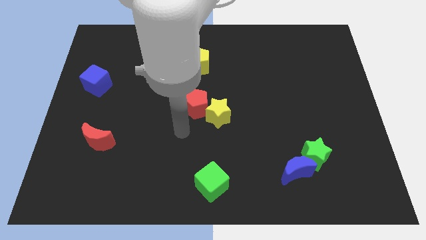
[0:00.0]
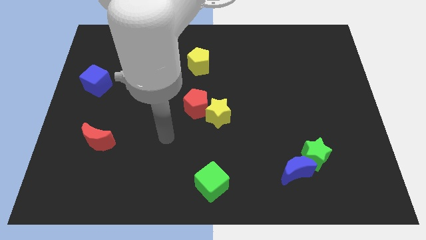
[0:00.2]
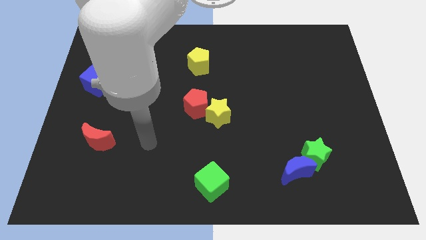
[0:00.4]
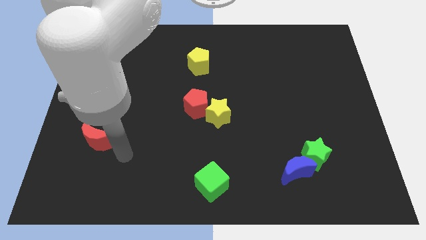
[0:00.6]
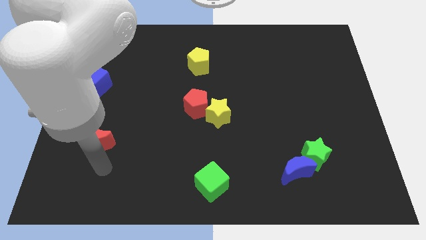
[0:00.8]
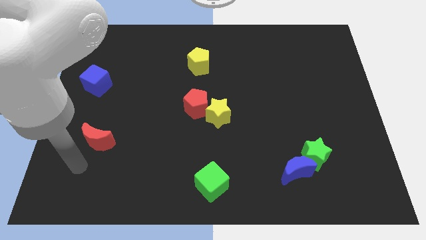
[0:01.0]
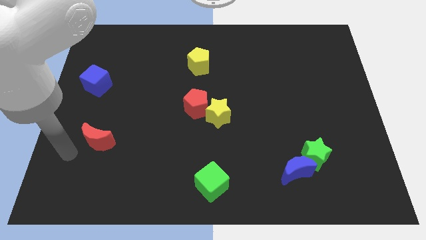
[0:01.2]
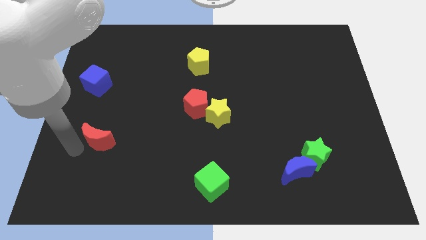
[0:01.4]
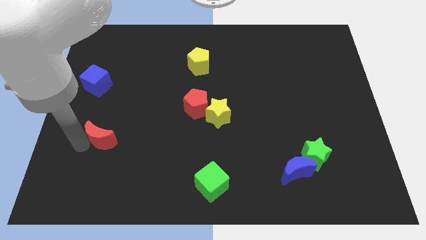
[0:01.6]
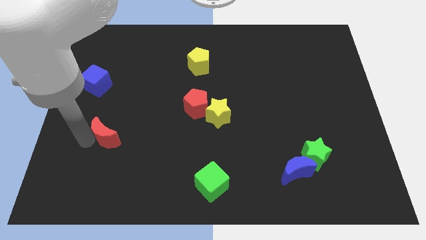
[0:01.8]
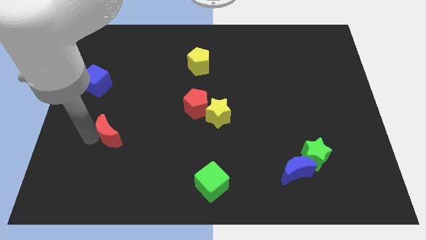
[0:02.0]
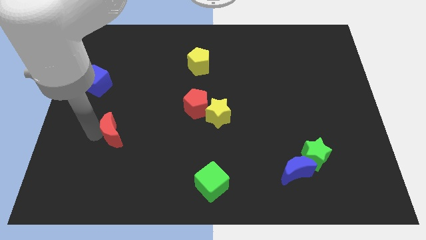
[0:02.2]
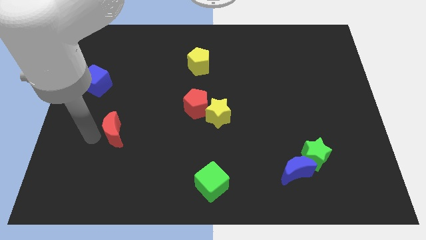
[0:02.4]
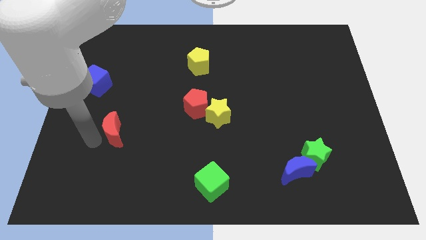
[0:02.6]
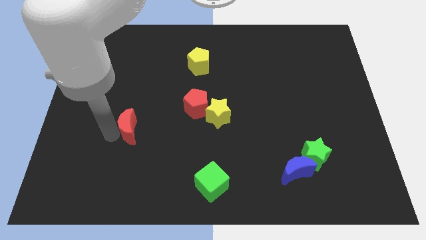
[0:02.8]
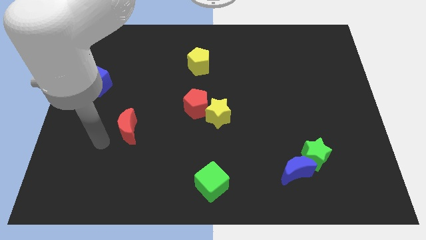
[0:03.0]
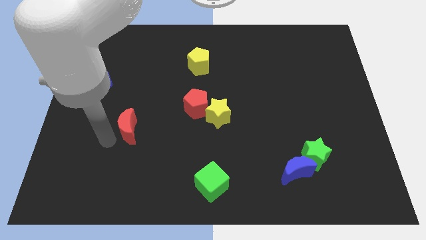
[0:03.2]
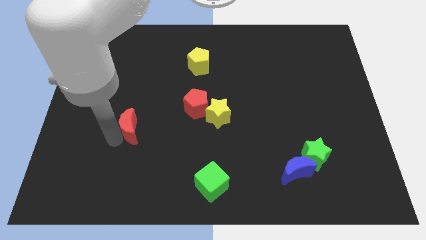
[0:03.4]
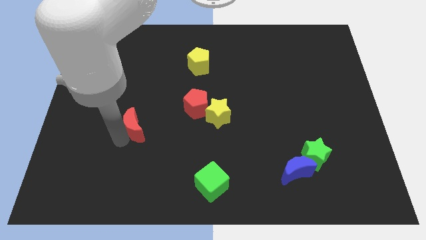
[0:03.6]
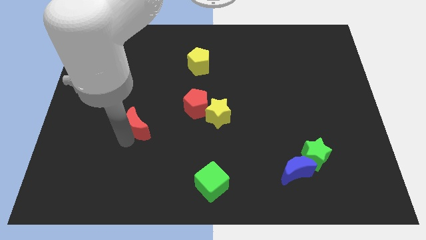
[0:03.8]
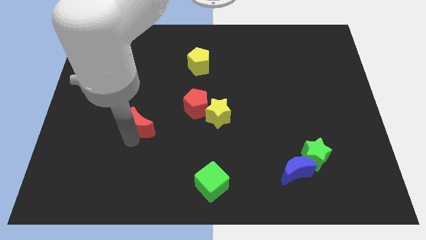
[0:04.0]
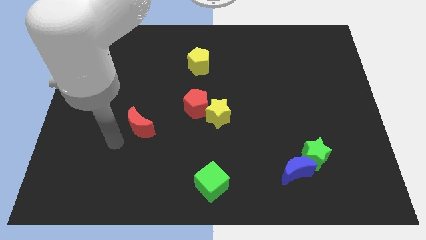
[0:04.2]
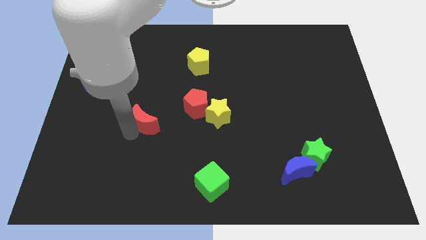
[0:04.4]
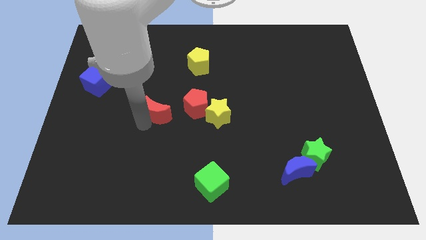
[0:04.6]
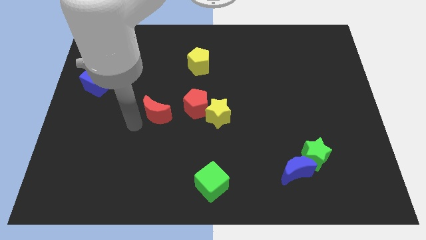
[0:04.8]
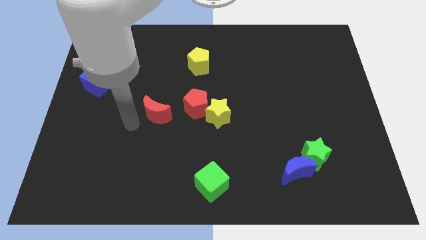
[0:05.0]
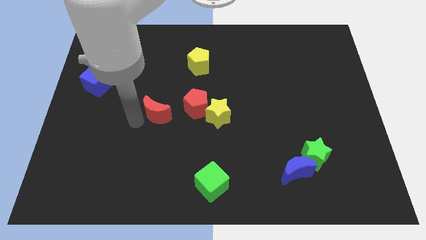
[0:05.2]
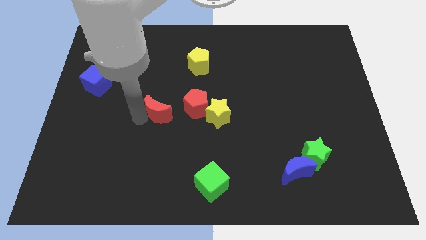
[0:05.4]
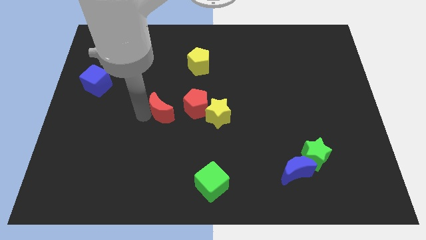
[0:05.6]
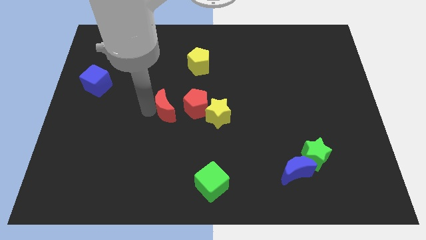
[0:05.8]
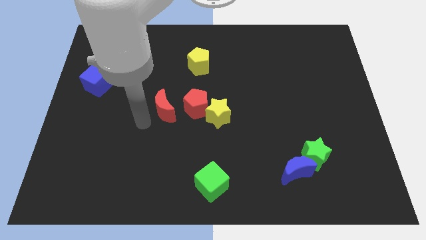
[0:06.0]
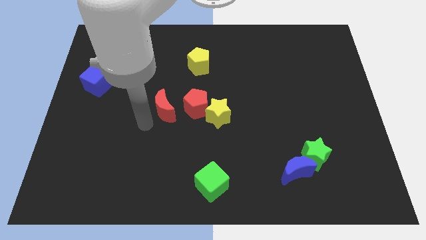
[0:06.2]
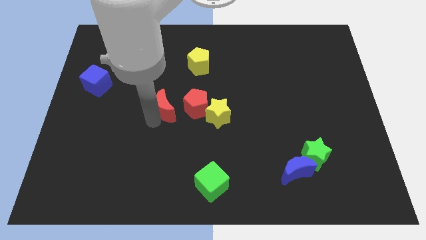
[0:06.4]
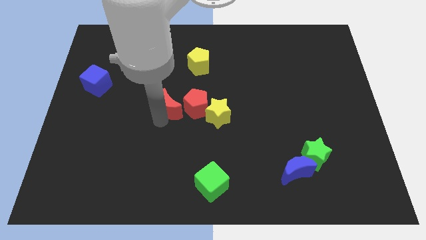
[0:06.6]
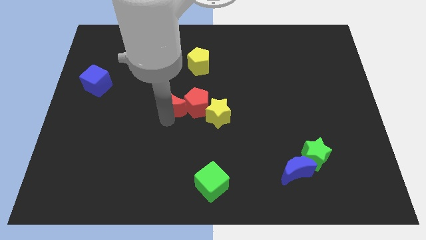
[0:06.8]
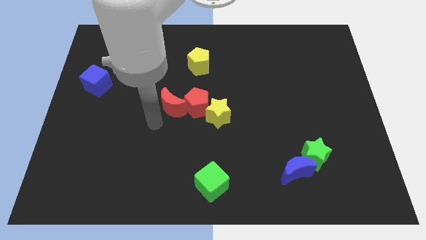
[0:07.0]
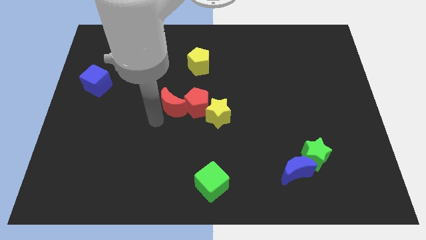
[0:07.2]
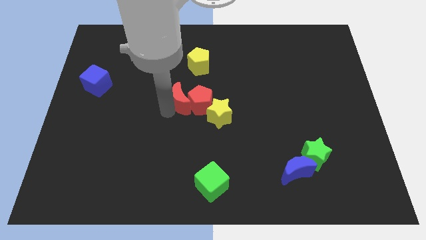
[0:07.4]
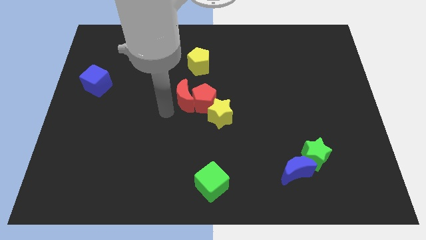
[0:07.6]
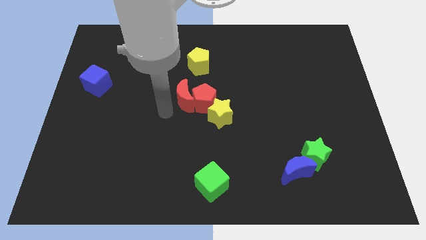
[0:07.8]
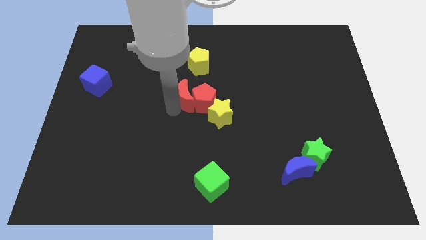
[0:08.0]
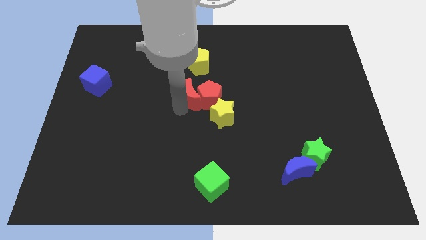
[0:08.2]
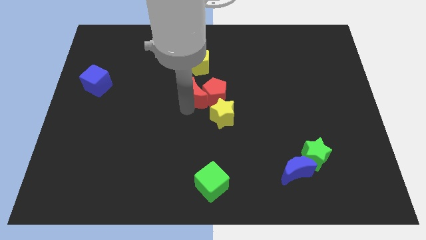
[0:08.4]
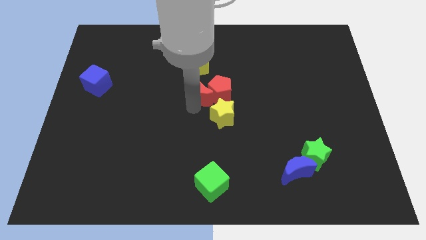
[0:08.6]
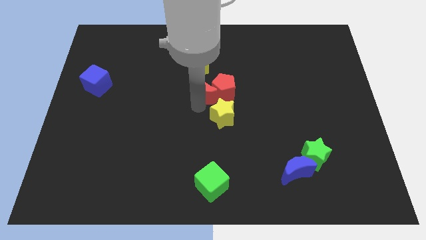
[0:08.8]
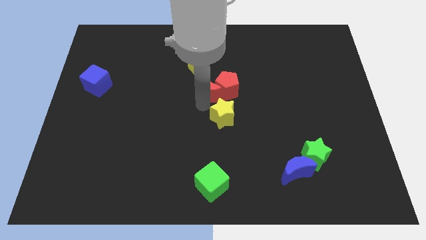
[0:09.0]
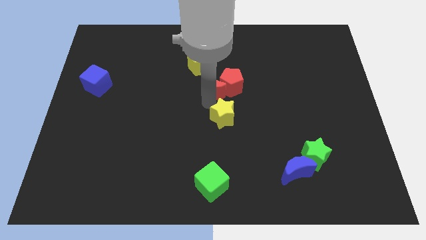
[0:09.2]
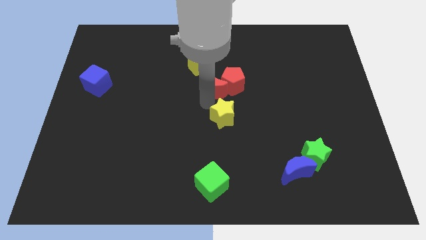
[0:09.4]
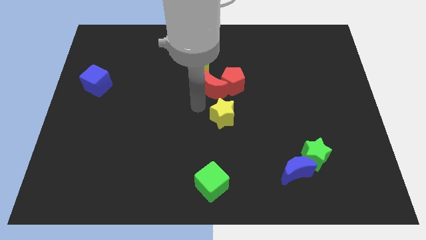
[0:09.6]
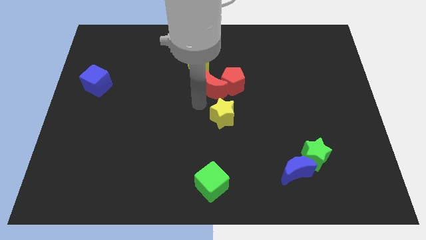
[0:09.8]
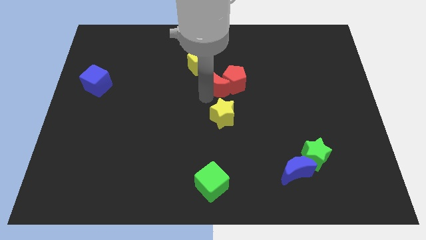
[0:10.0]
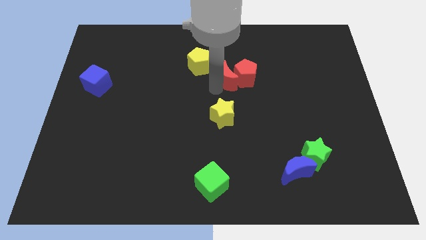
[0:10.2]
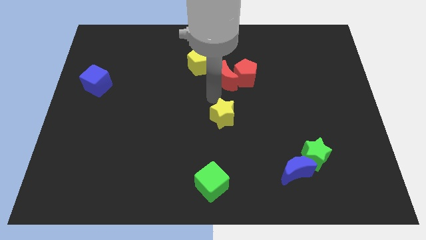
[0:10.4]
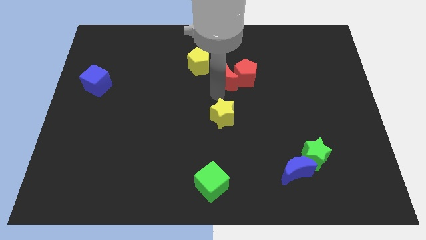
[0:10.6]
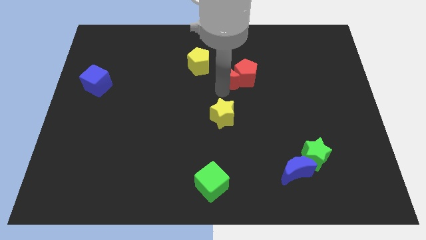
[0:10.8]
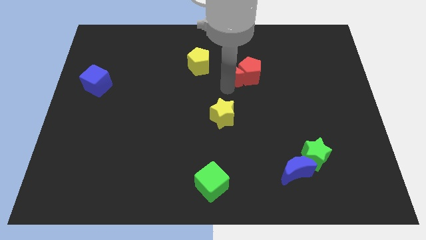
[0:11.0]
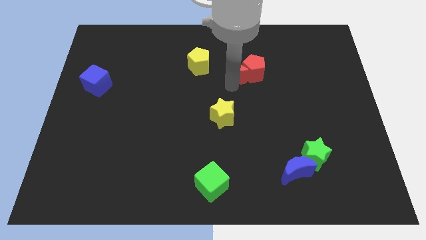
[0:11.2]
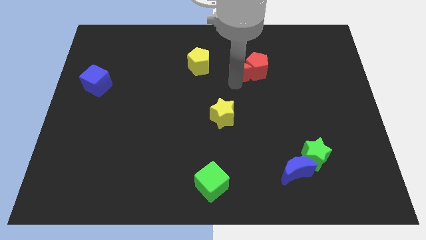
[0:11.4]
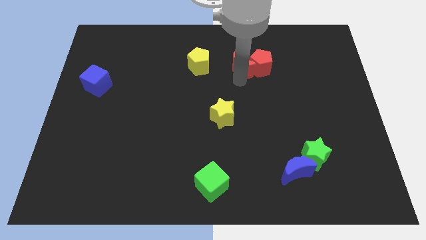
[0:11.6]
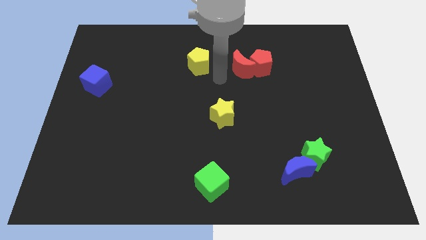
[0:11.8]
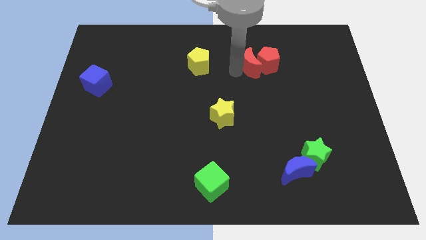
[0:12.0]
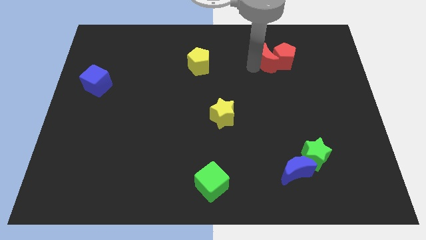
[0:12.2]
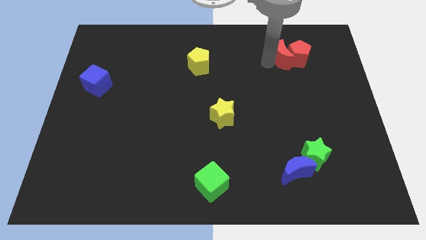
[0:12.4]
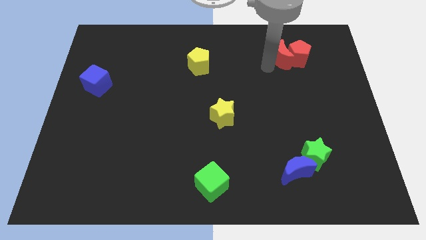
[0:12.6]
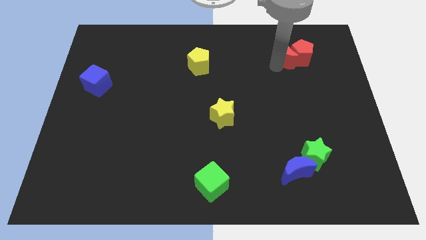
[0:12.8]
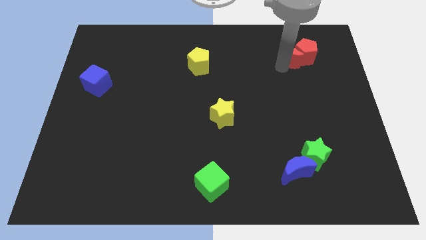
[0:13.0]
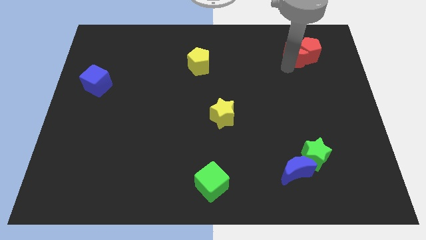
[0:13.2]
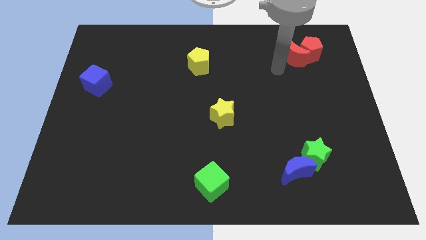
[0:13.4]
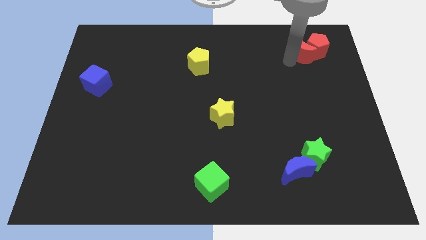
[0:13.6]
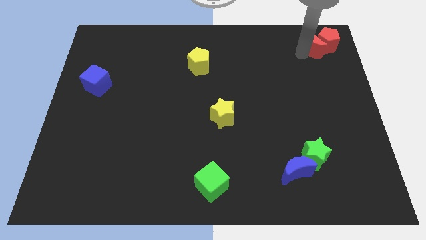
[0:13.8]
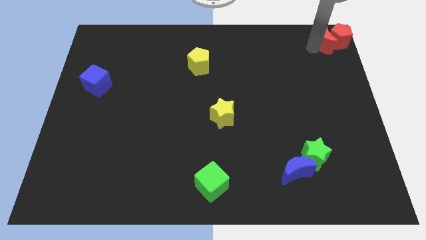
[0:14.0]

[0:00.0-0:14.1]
move the red moon to the top right

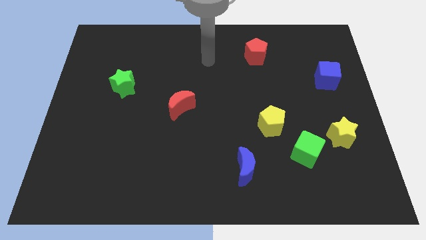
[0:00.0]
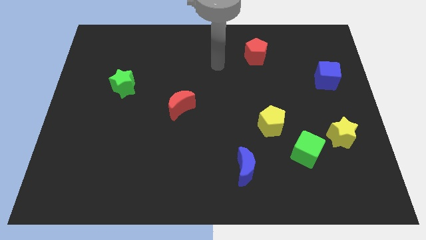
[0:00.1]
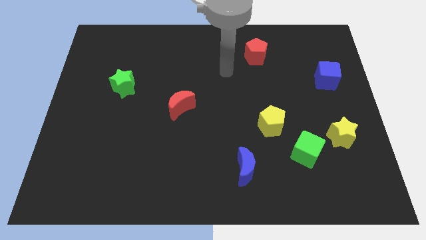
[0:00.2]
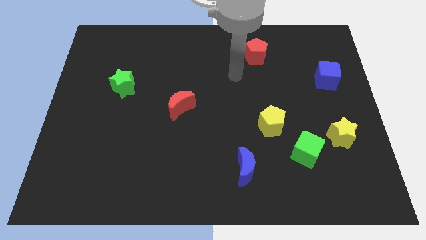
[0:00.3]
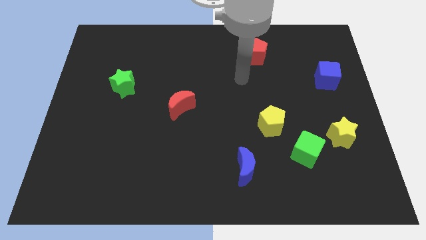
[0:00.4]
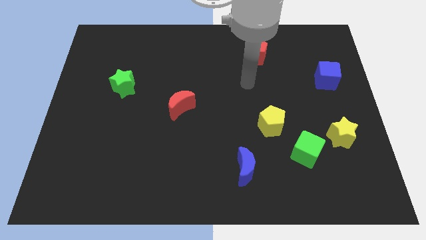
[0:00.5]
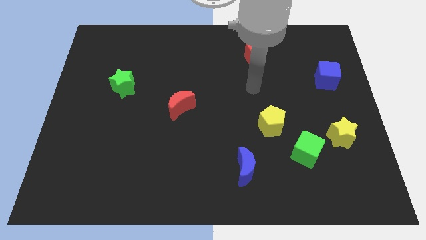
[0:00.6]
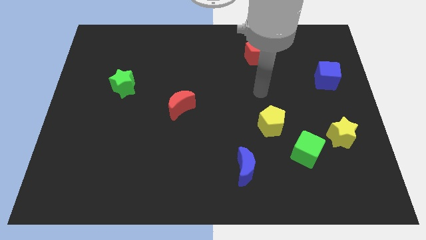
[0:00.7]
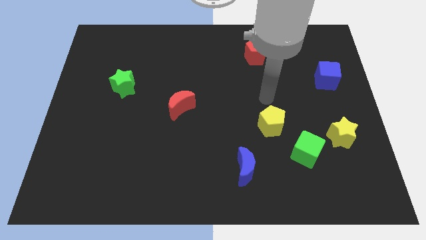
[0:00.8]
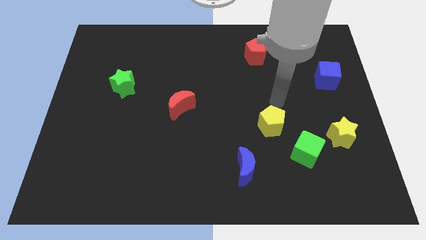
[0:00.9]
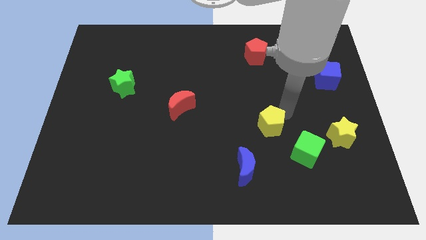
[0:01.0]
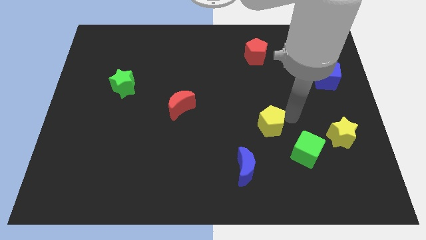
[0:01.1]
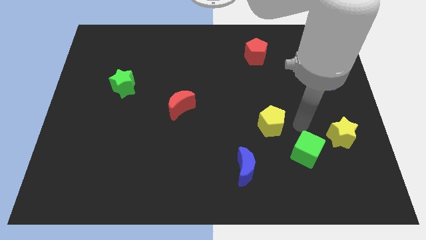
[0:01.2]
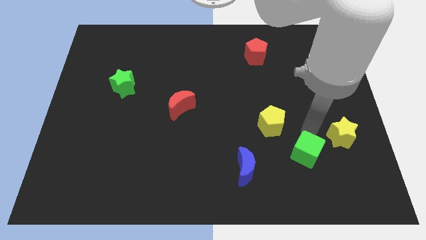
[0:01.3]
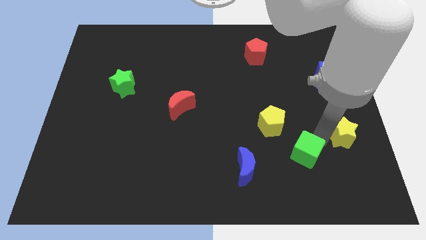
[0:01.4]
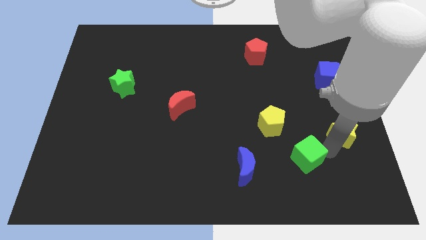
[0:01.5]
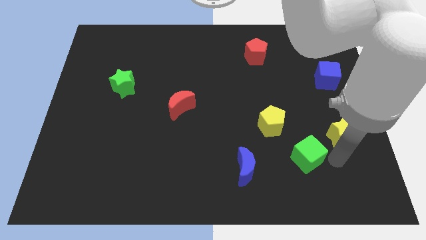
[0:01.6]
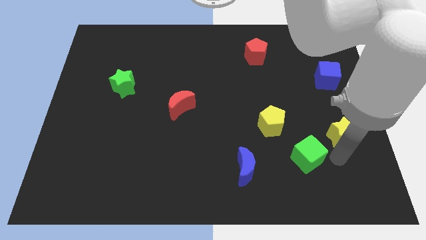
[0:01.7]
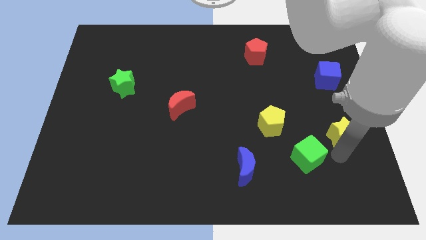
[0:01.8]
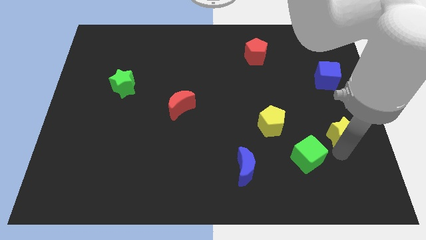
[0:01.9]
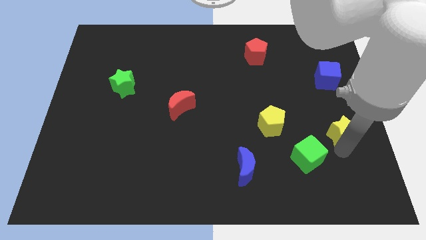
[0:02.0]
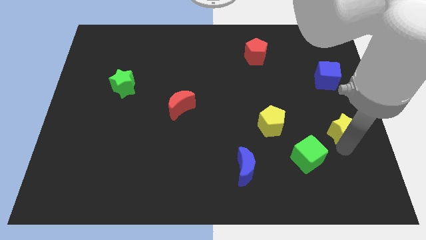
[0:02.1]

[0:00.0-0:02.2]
move the yellow star to the center right
